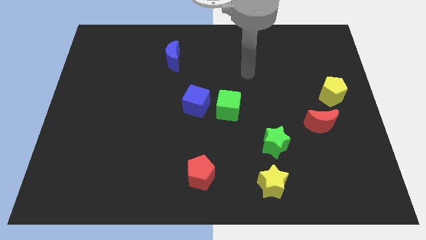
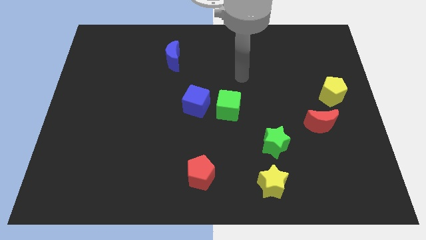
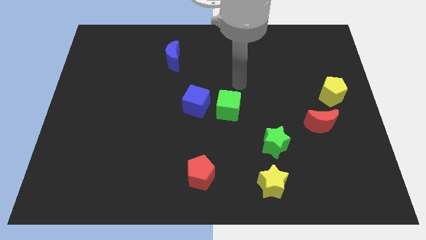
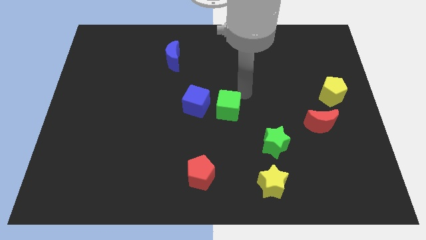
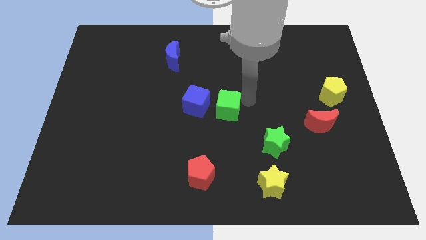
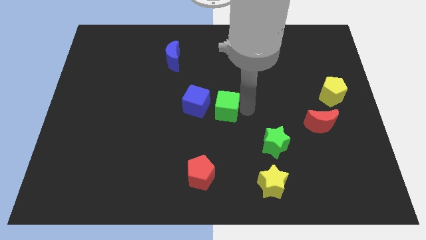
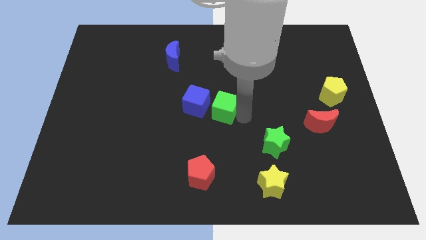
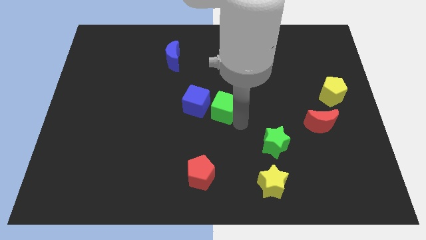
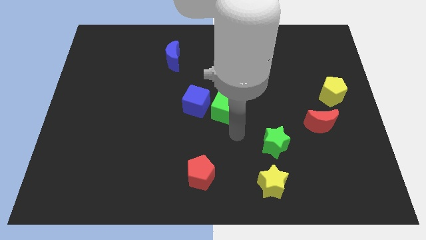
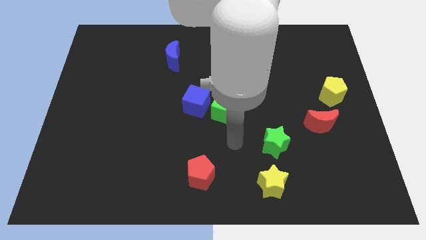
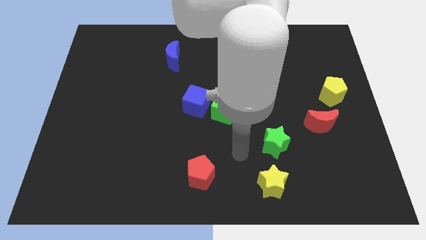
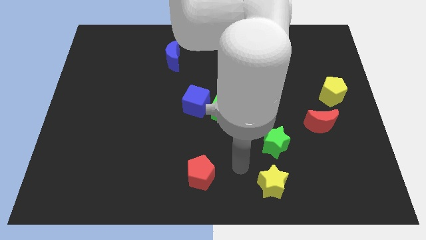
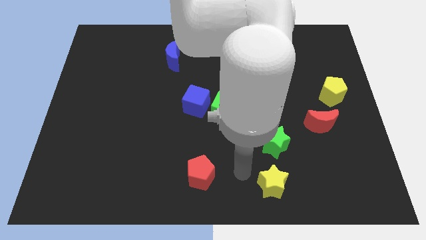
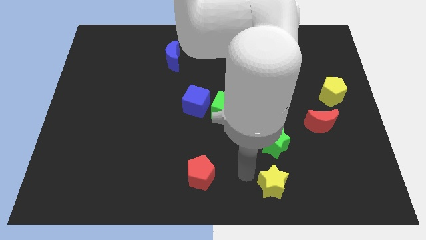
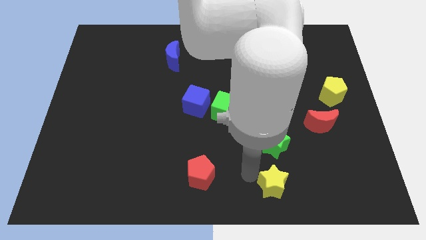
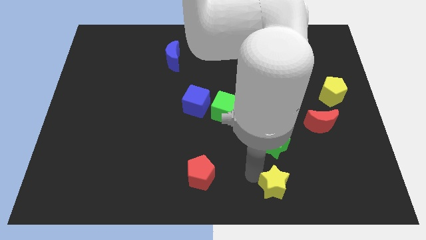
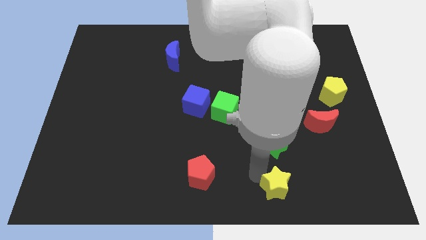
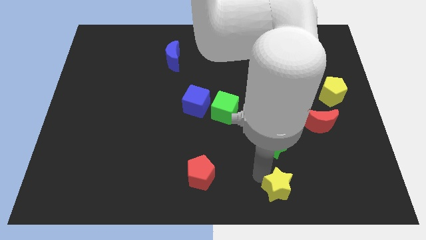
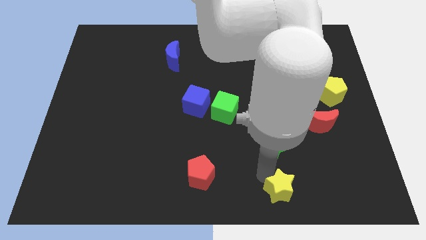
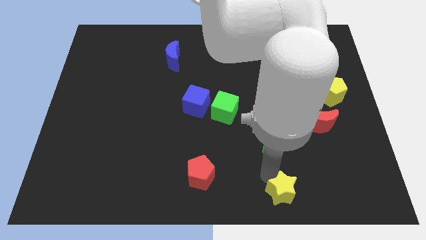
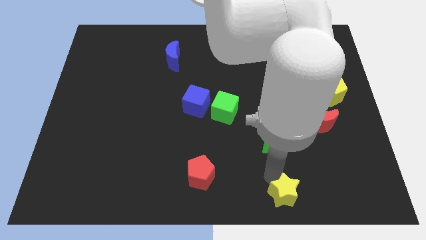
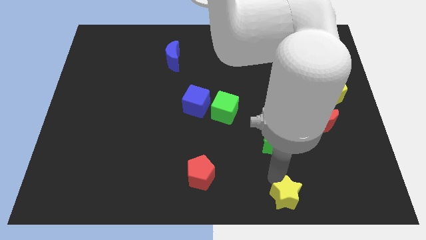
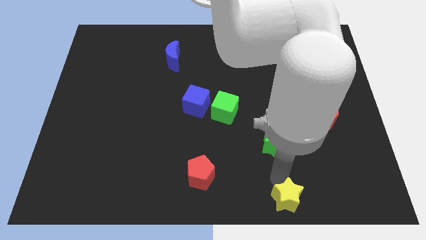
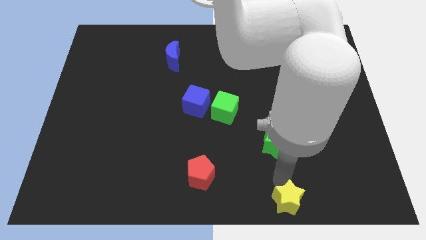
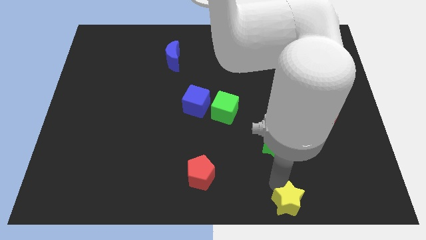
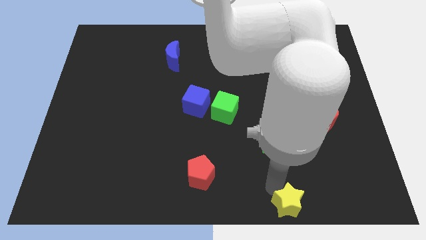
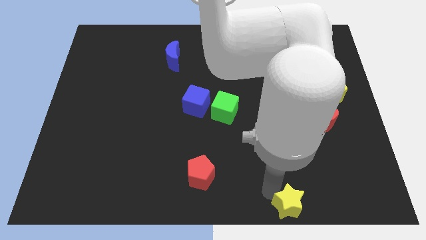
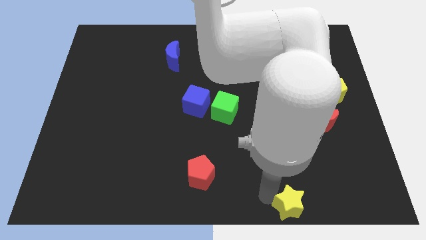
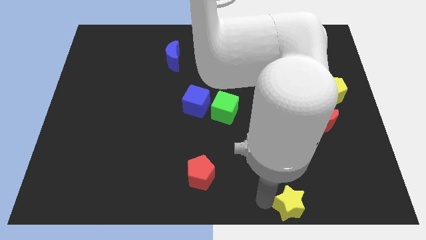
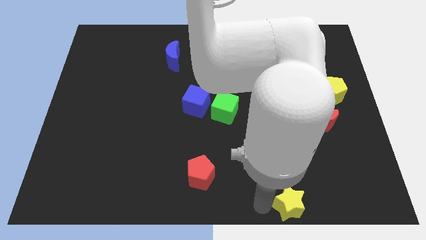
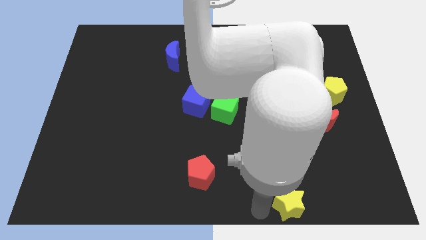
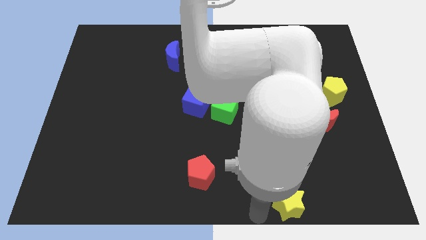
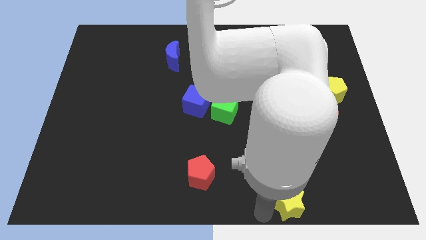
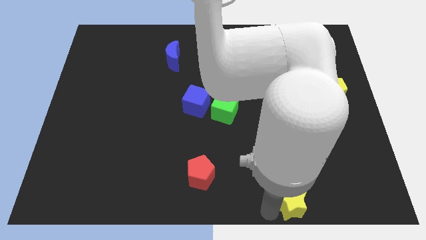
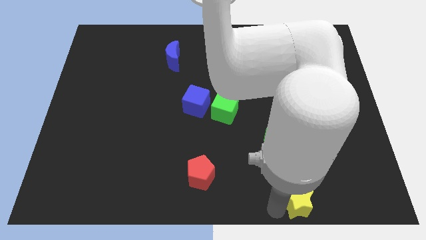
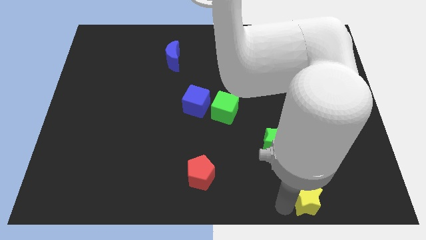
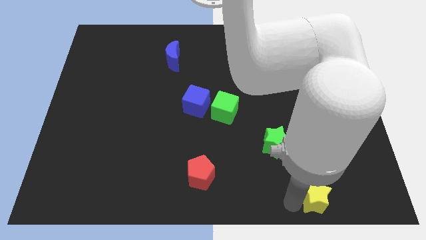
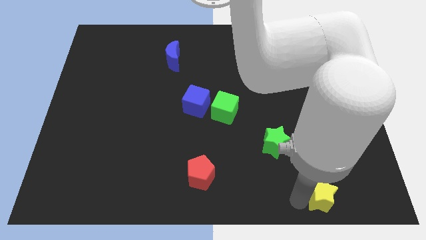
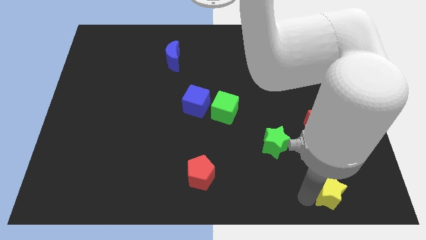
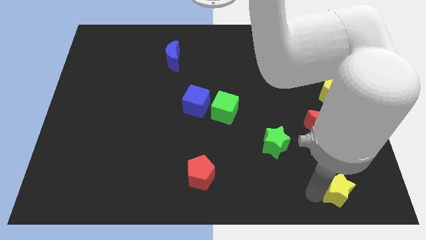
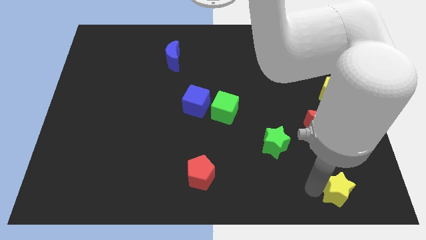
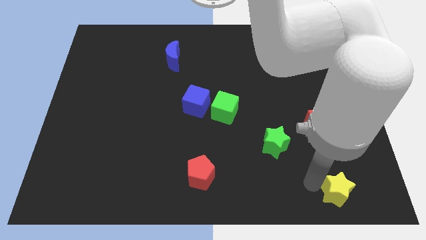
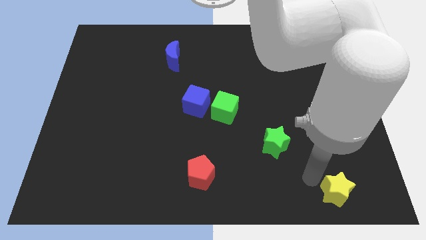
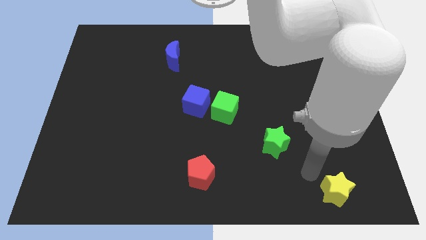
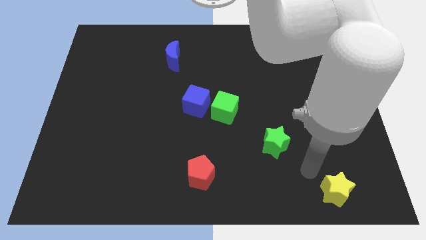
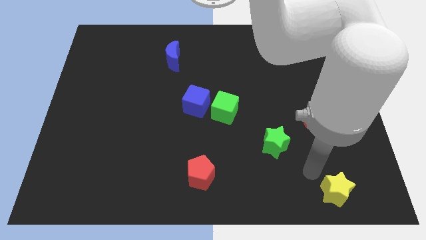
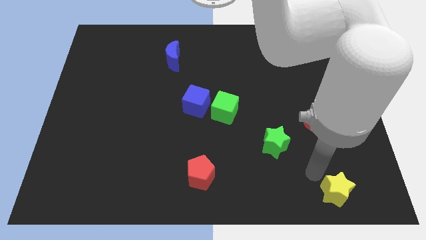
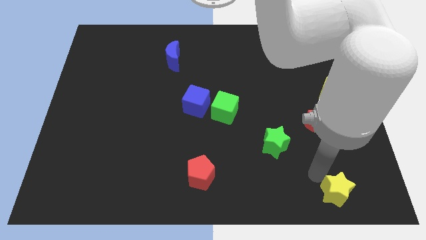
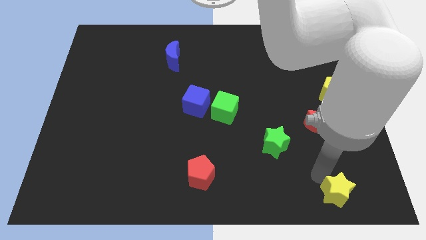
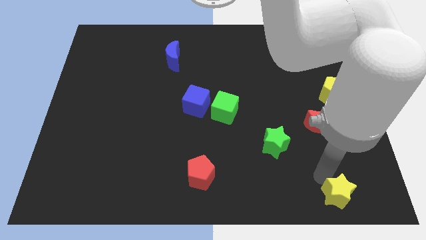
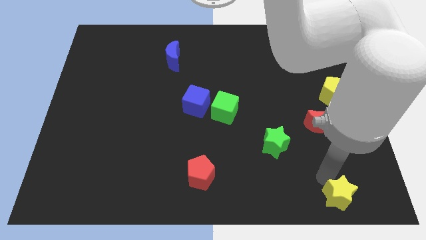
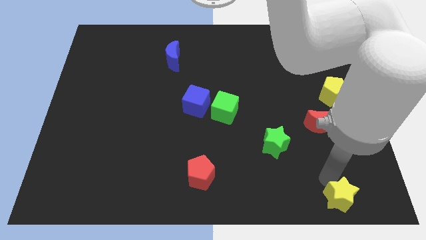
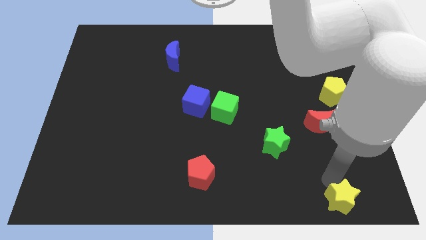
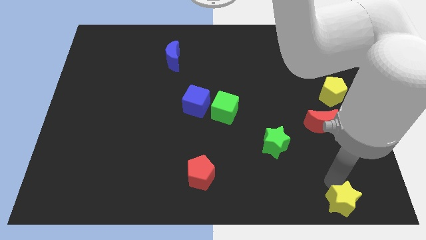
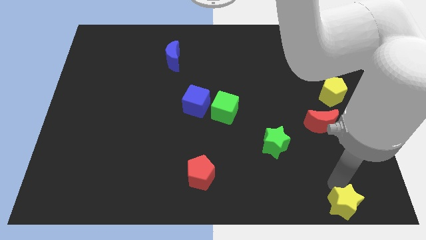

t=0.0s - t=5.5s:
slide the yellow star to the bottom right
